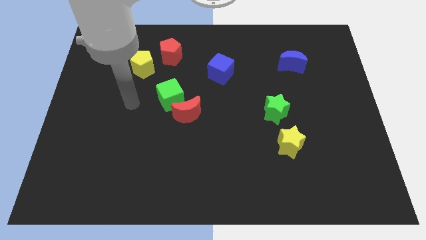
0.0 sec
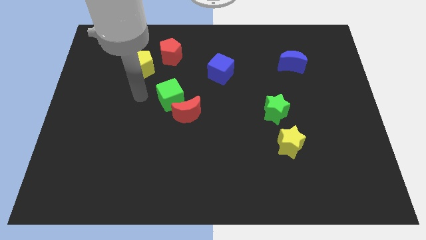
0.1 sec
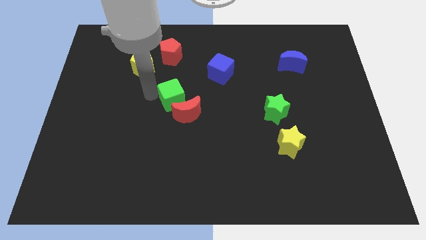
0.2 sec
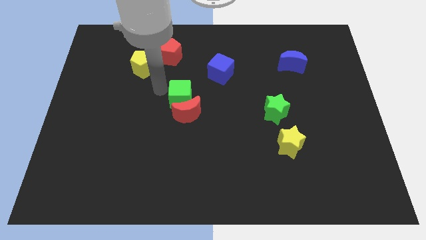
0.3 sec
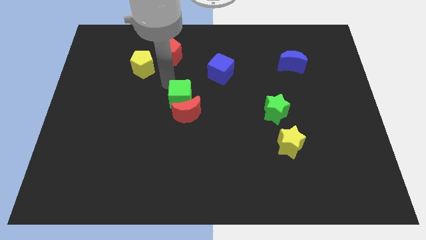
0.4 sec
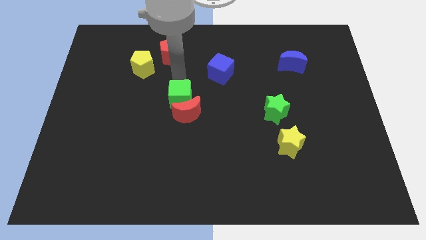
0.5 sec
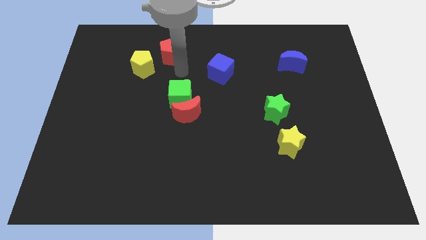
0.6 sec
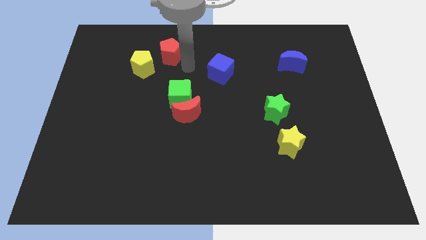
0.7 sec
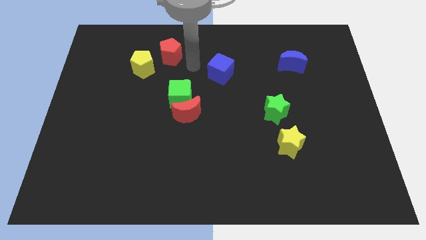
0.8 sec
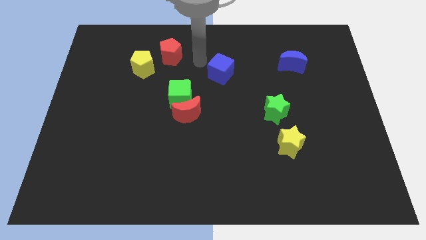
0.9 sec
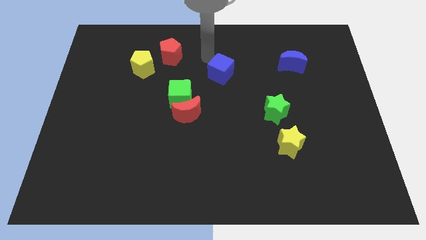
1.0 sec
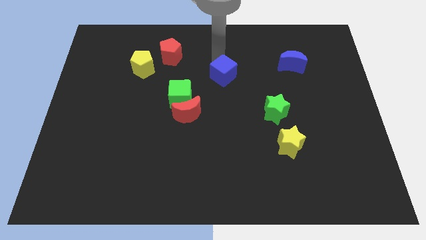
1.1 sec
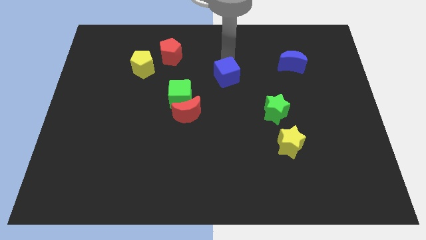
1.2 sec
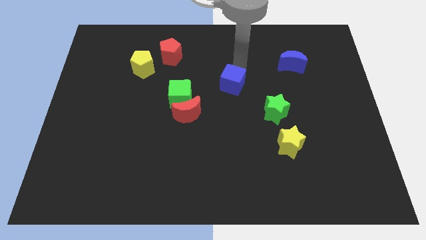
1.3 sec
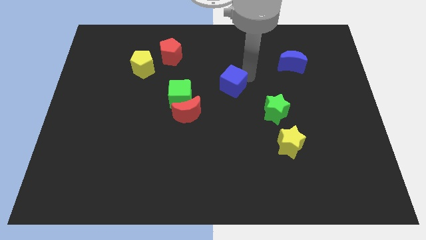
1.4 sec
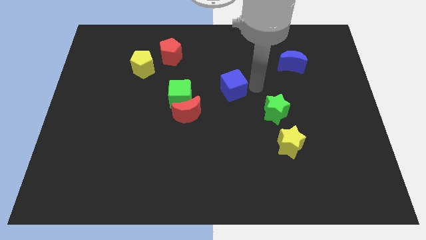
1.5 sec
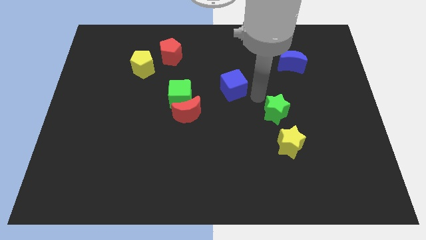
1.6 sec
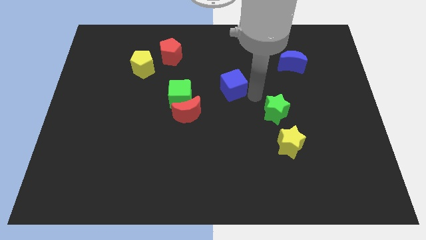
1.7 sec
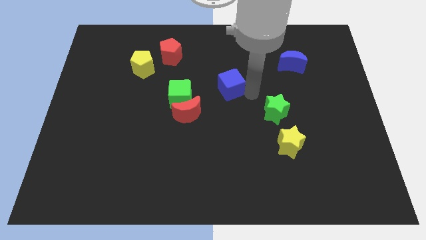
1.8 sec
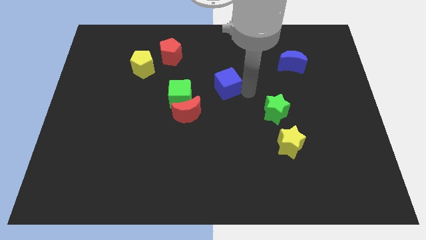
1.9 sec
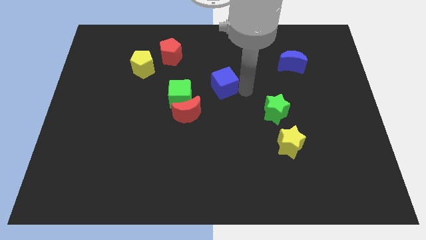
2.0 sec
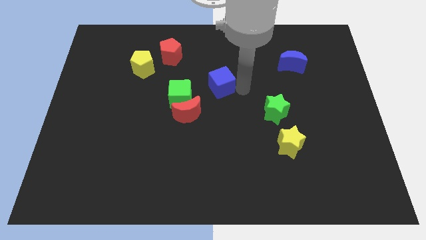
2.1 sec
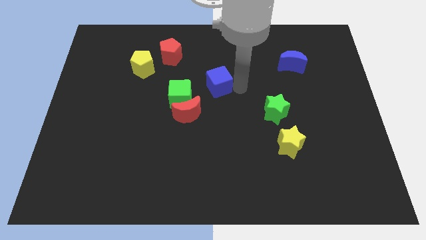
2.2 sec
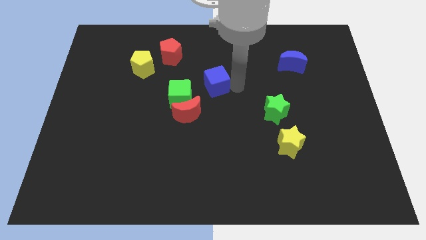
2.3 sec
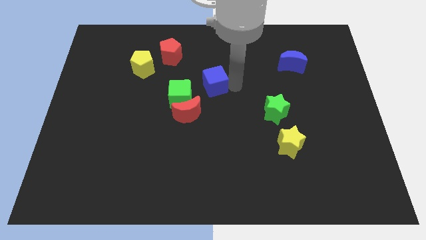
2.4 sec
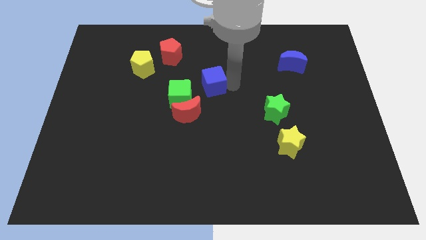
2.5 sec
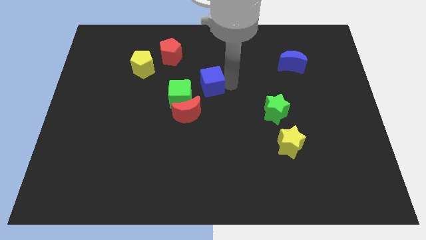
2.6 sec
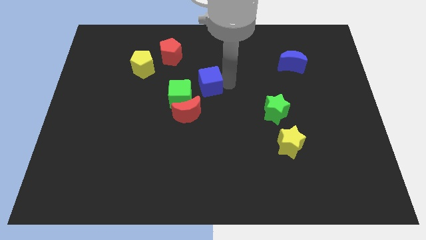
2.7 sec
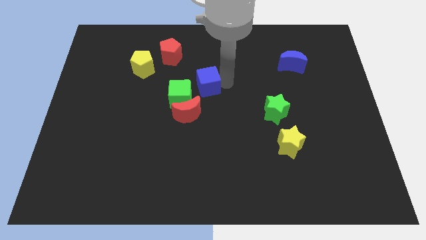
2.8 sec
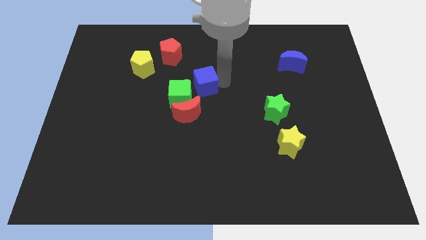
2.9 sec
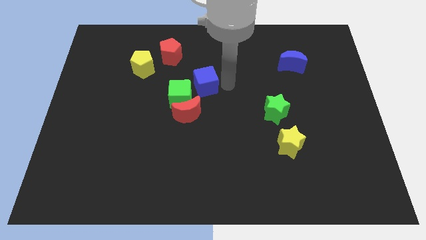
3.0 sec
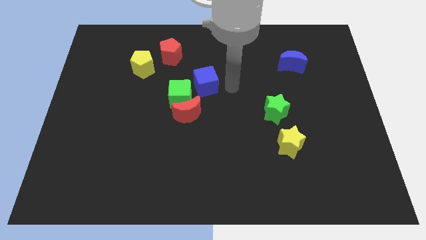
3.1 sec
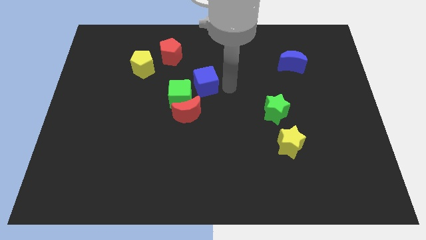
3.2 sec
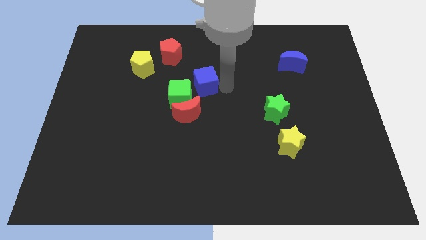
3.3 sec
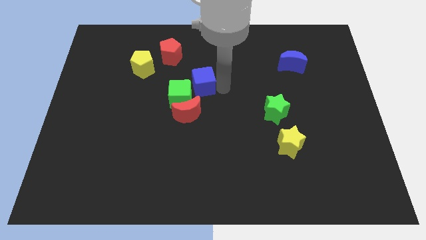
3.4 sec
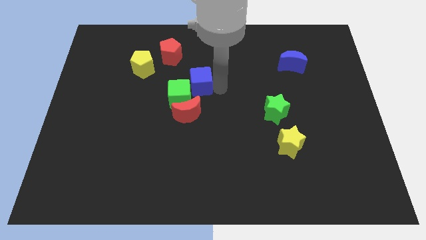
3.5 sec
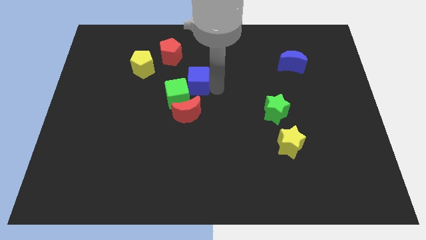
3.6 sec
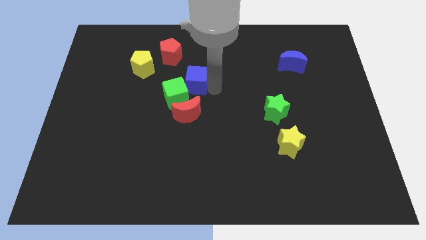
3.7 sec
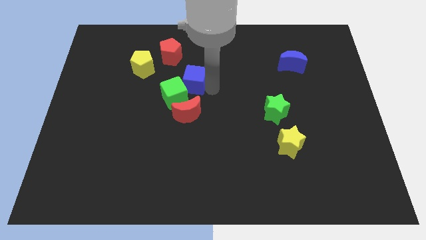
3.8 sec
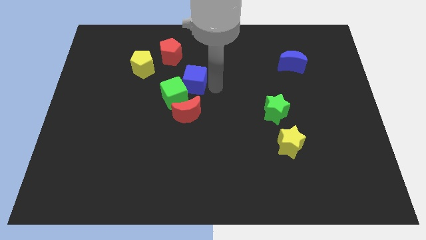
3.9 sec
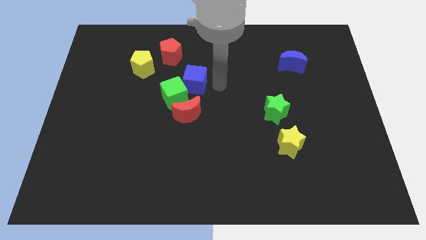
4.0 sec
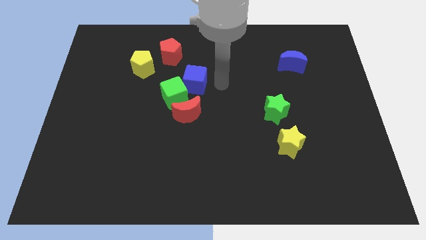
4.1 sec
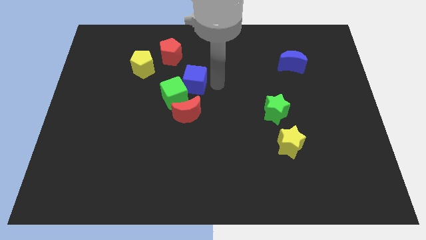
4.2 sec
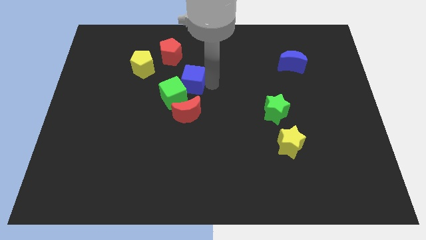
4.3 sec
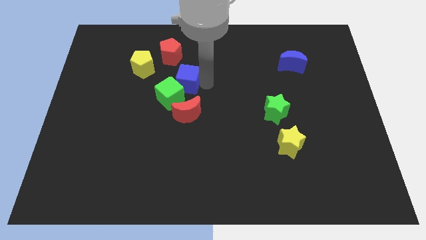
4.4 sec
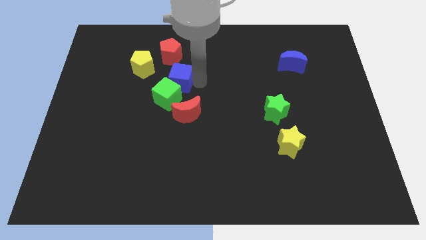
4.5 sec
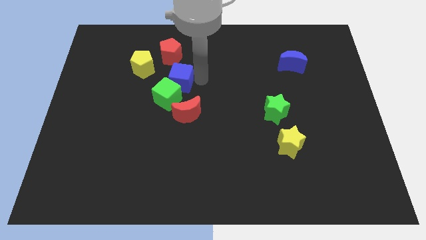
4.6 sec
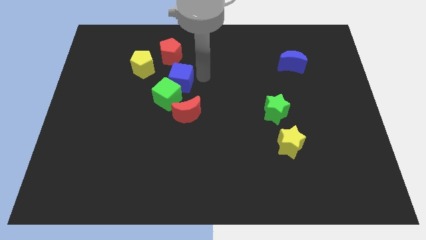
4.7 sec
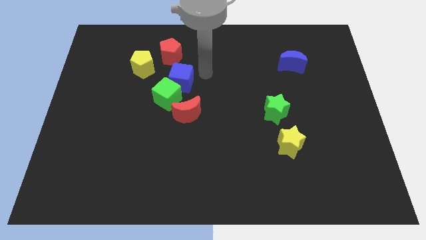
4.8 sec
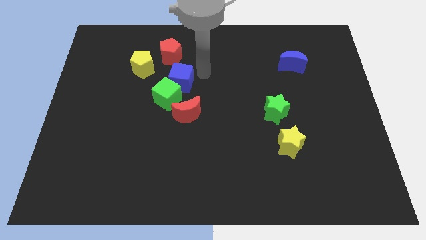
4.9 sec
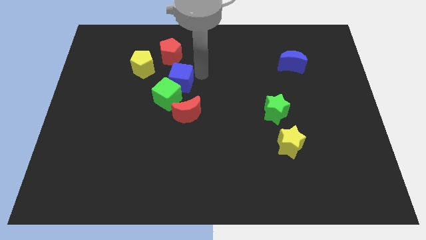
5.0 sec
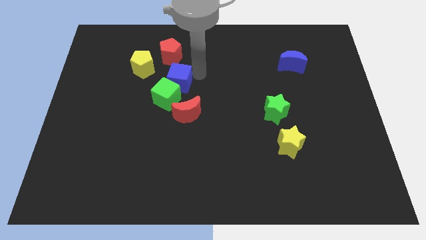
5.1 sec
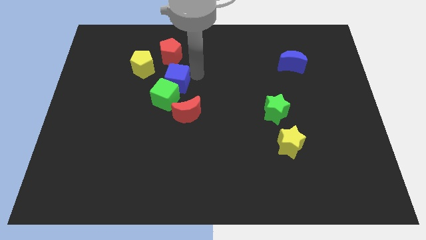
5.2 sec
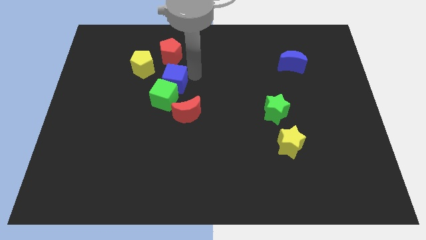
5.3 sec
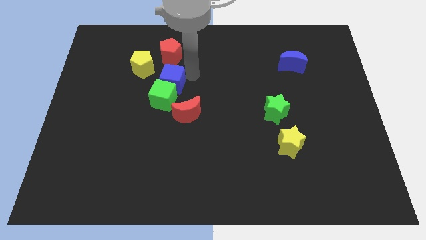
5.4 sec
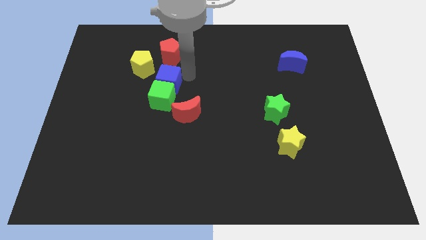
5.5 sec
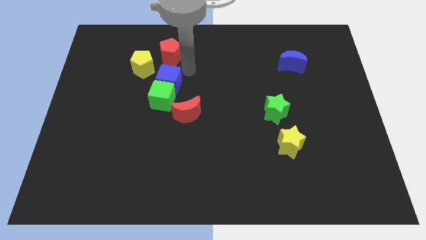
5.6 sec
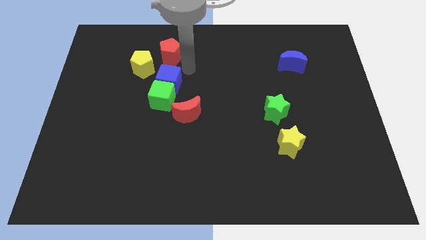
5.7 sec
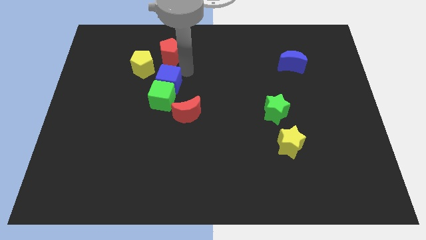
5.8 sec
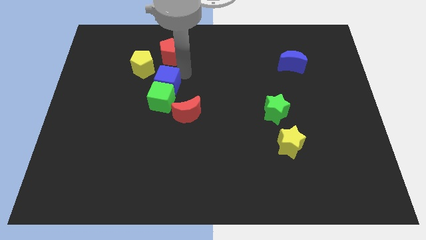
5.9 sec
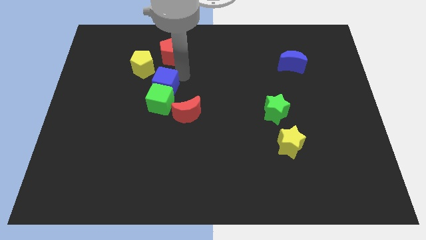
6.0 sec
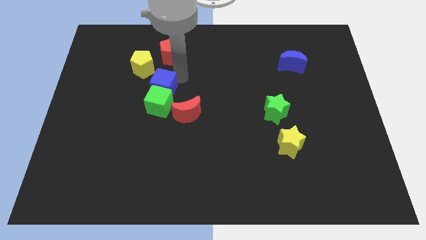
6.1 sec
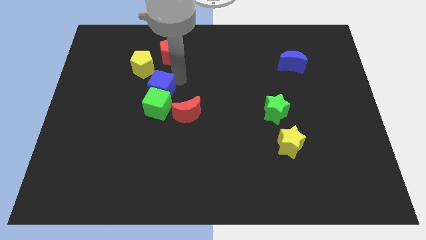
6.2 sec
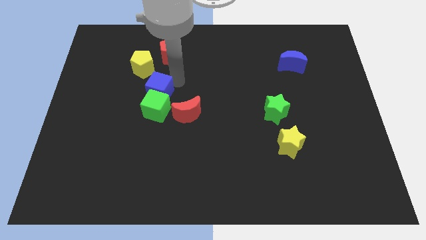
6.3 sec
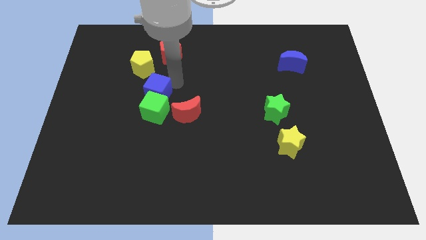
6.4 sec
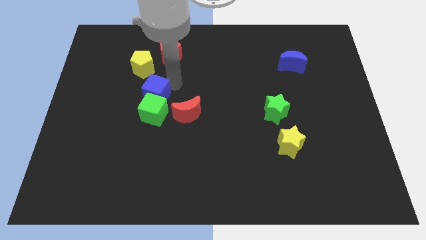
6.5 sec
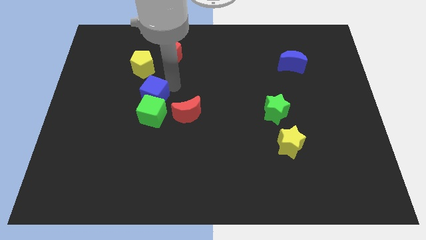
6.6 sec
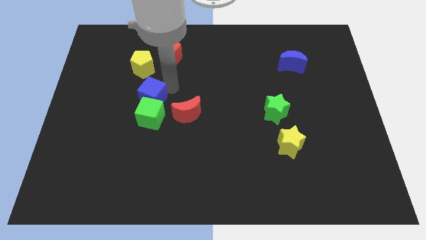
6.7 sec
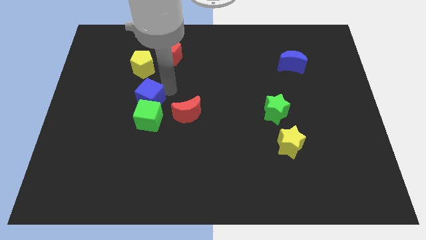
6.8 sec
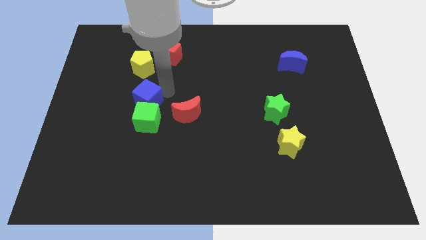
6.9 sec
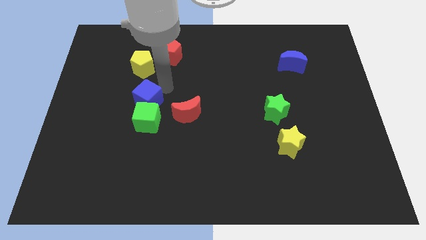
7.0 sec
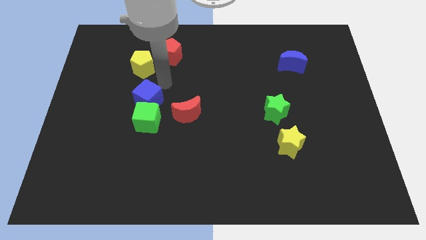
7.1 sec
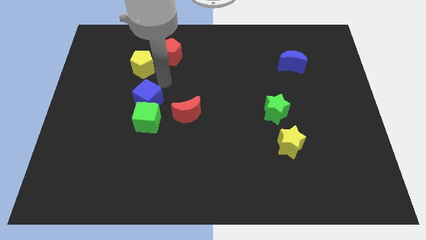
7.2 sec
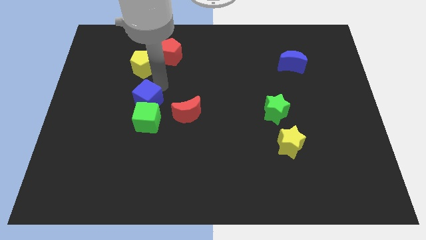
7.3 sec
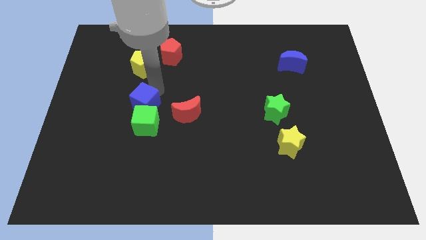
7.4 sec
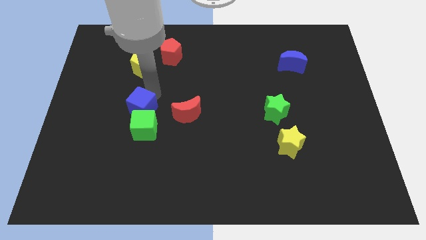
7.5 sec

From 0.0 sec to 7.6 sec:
move the blue cube down and then to the left

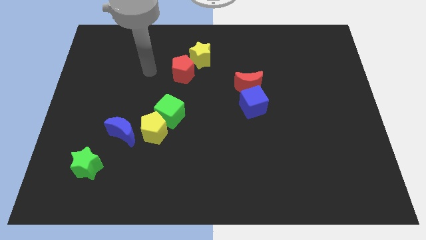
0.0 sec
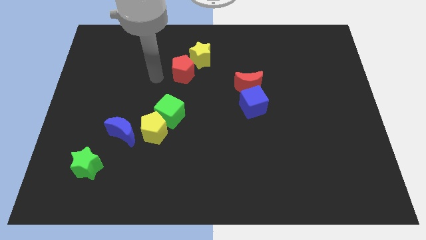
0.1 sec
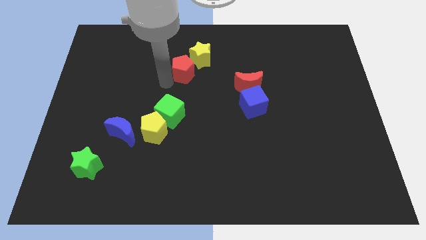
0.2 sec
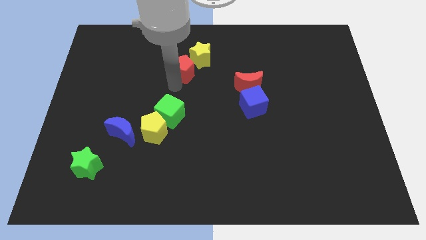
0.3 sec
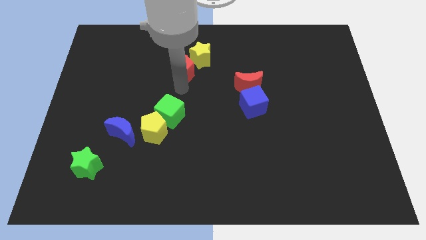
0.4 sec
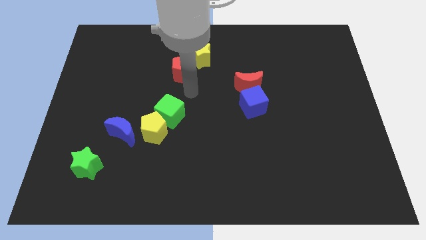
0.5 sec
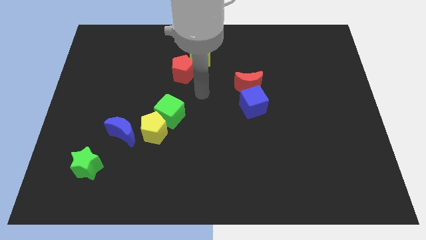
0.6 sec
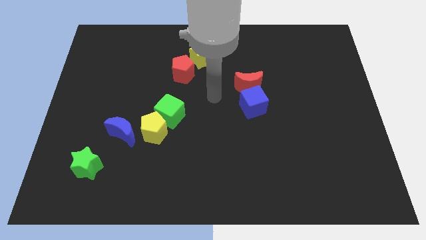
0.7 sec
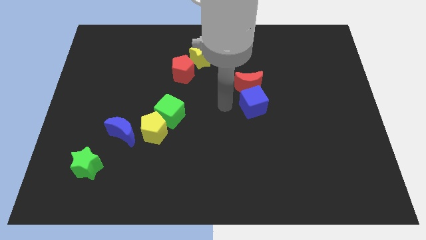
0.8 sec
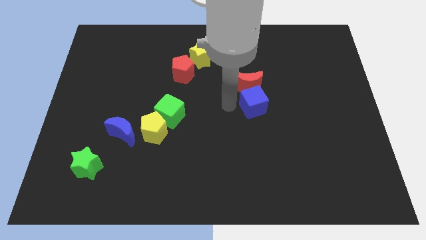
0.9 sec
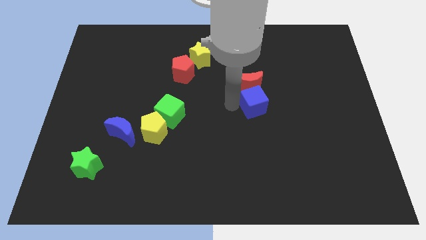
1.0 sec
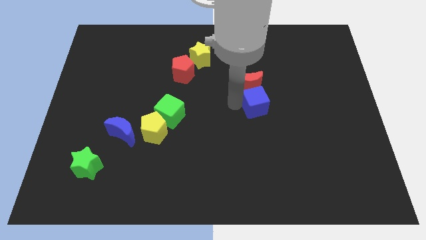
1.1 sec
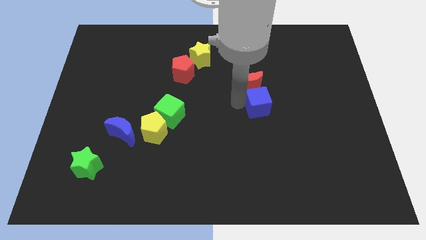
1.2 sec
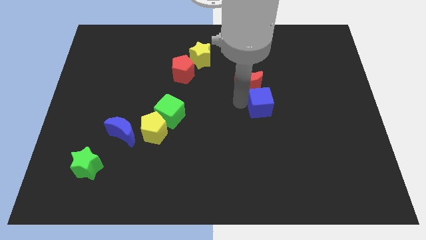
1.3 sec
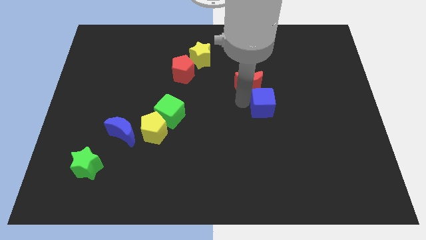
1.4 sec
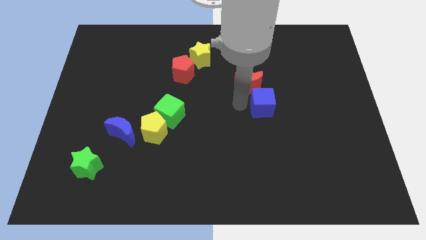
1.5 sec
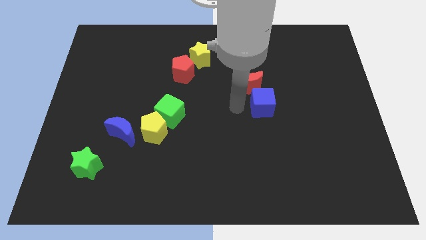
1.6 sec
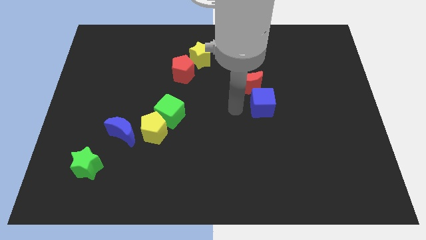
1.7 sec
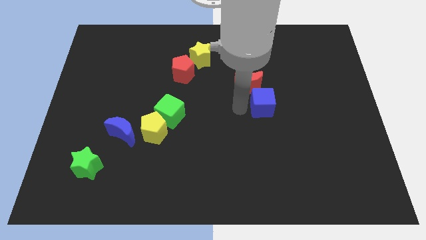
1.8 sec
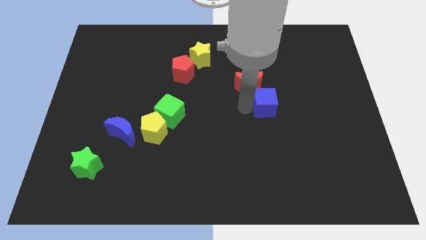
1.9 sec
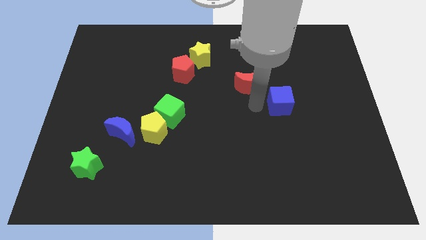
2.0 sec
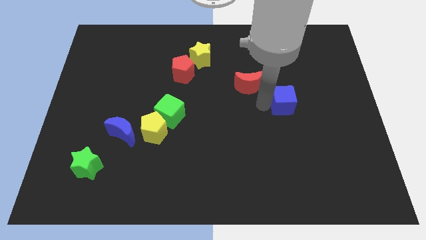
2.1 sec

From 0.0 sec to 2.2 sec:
move the blue cube a little to the right
